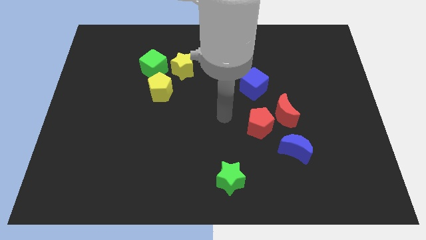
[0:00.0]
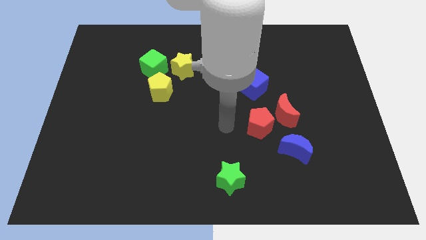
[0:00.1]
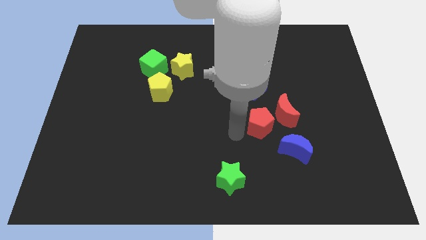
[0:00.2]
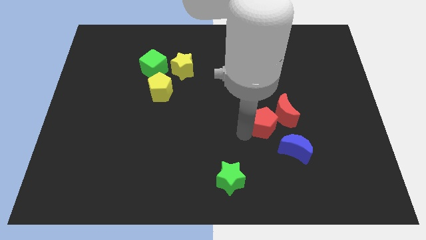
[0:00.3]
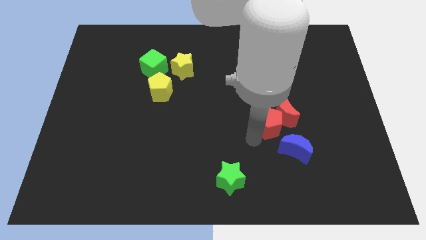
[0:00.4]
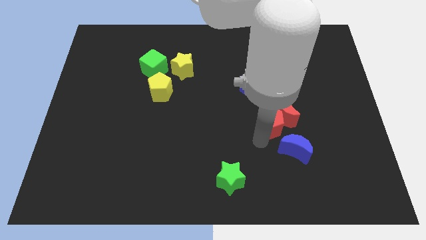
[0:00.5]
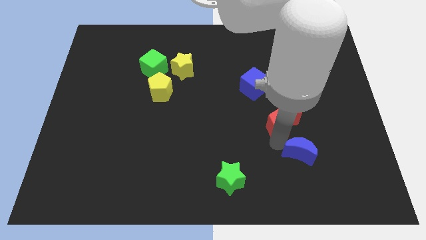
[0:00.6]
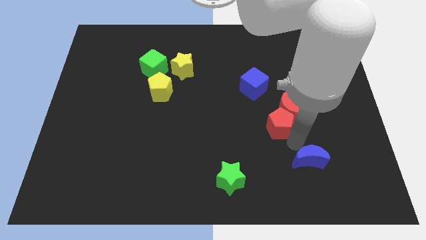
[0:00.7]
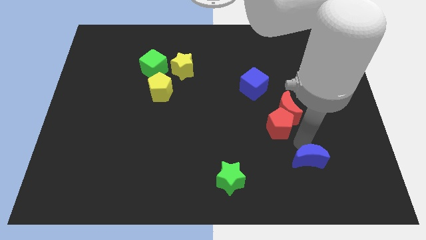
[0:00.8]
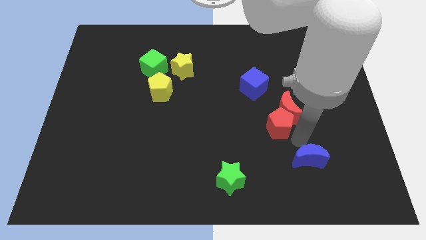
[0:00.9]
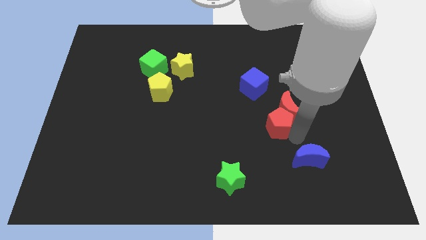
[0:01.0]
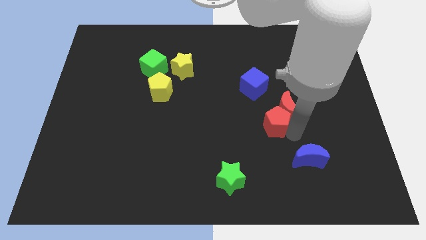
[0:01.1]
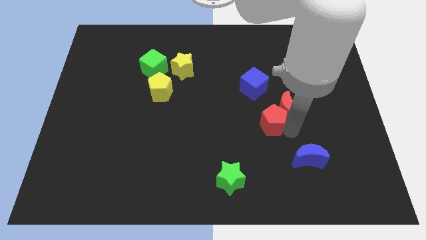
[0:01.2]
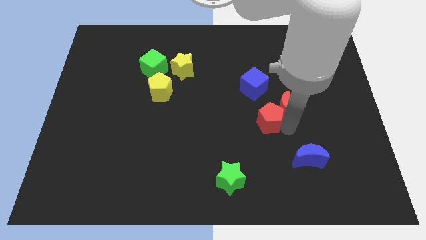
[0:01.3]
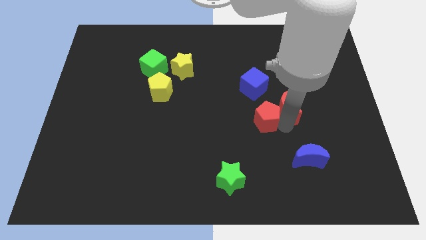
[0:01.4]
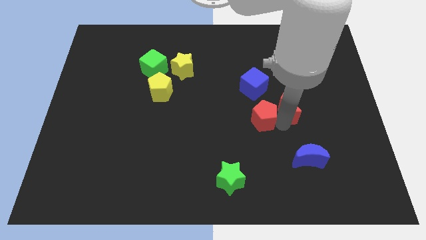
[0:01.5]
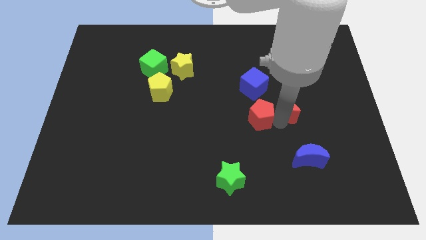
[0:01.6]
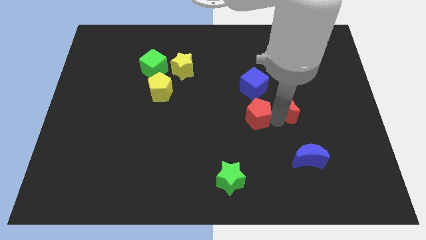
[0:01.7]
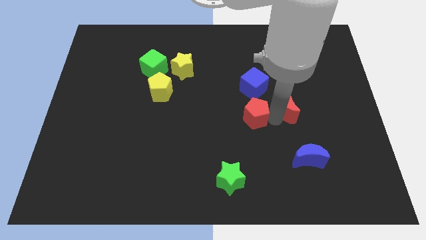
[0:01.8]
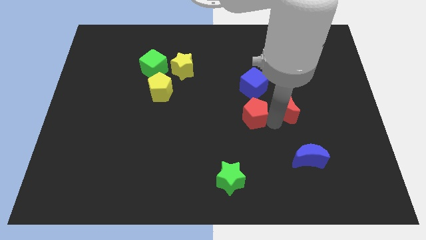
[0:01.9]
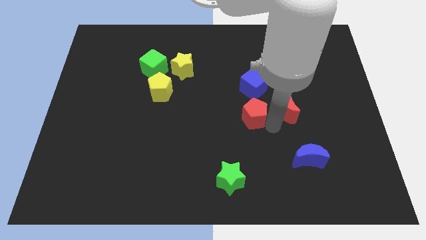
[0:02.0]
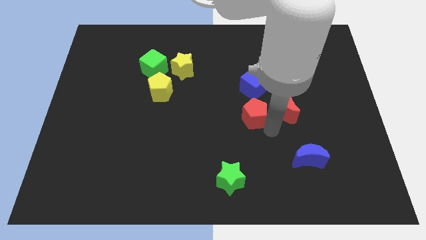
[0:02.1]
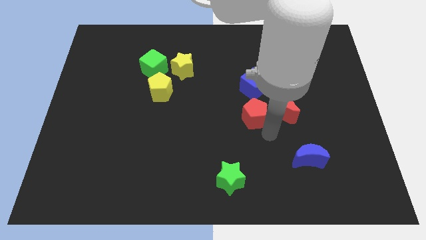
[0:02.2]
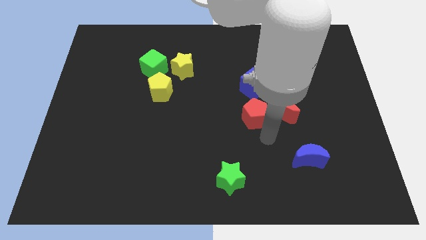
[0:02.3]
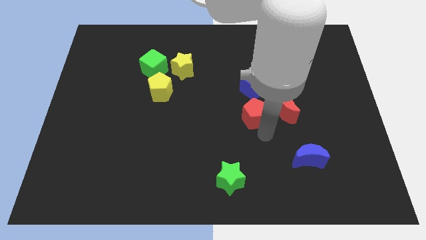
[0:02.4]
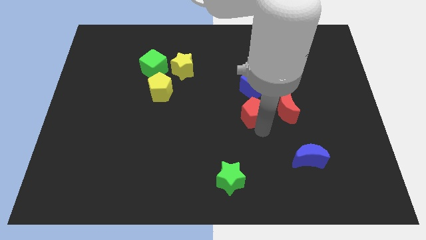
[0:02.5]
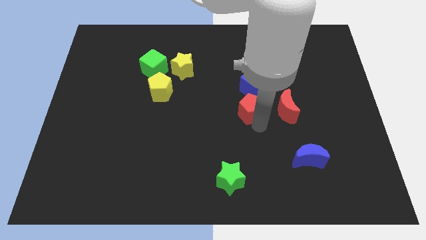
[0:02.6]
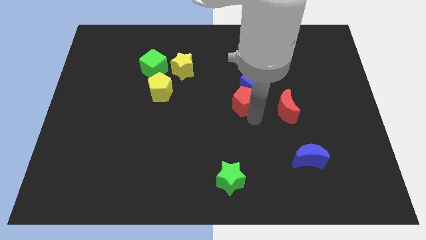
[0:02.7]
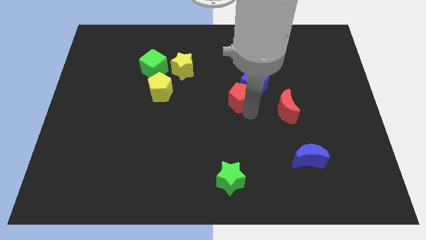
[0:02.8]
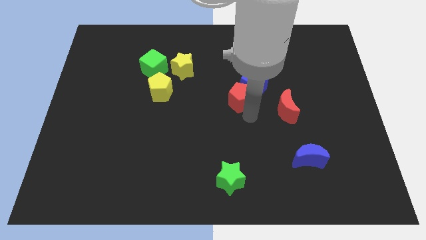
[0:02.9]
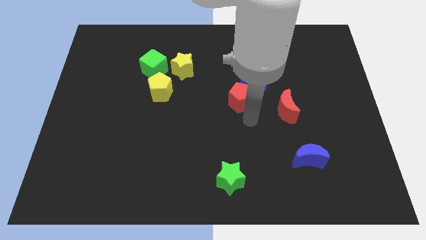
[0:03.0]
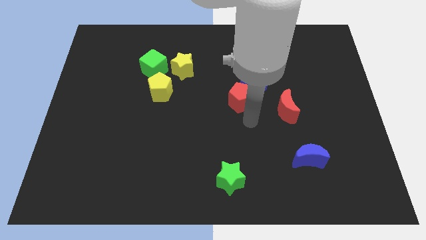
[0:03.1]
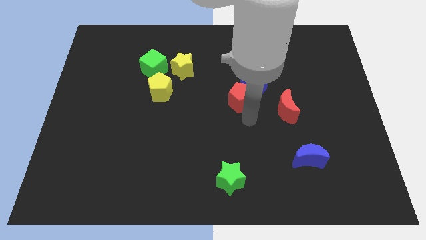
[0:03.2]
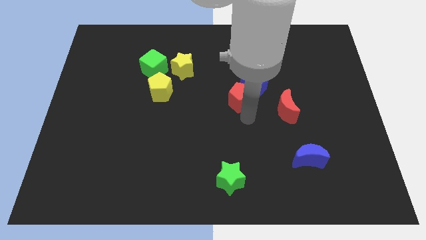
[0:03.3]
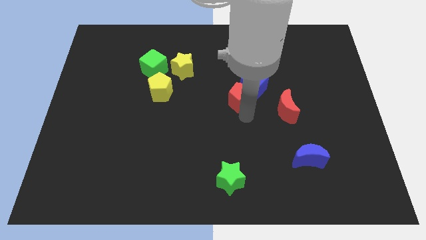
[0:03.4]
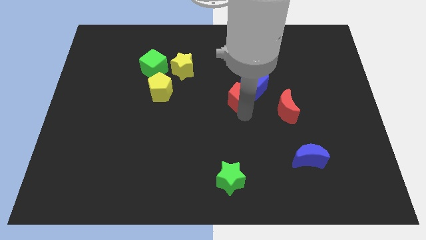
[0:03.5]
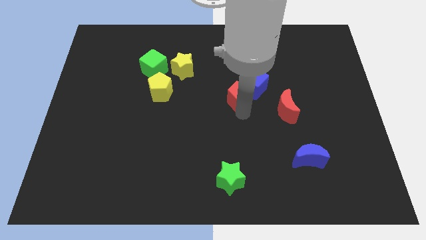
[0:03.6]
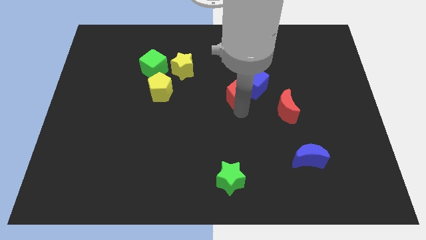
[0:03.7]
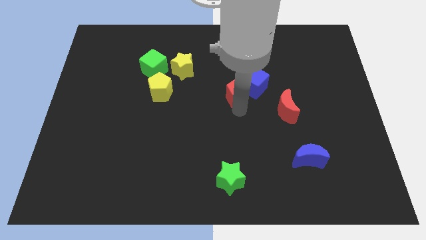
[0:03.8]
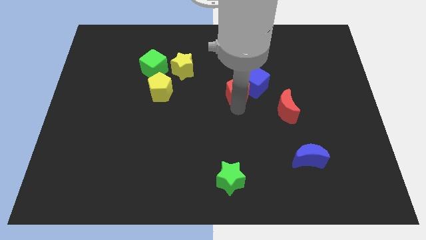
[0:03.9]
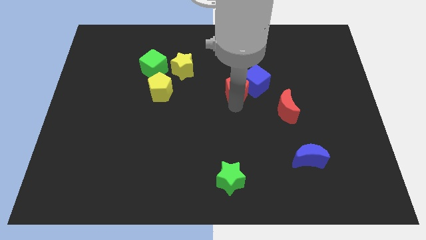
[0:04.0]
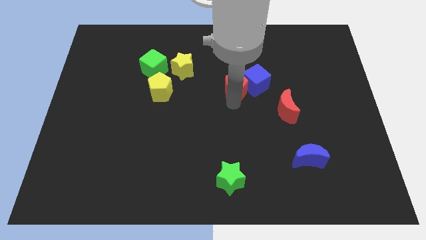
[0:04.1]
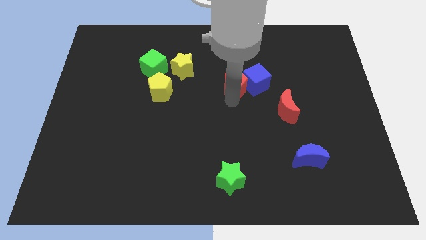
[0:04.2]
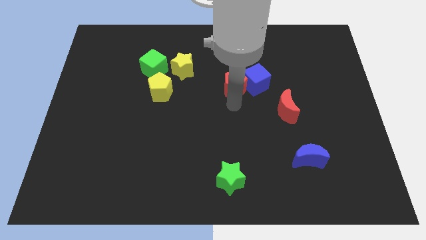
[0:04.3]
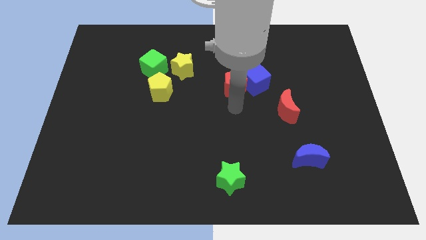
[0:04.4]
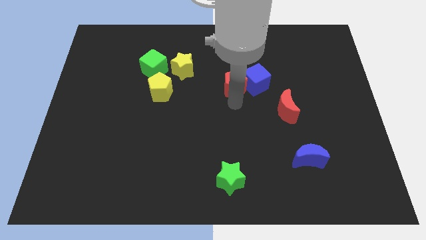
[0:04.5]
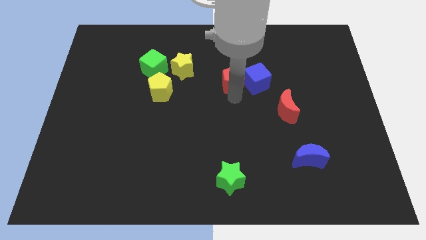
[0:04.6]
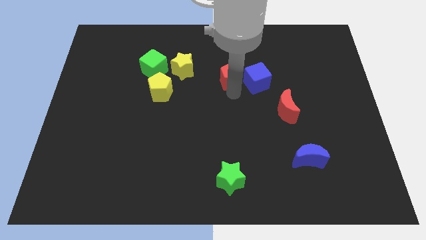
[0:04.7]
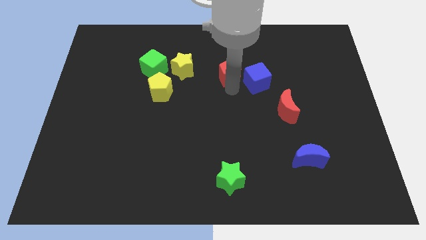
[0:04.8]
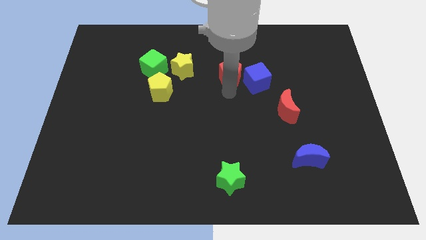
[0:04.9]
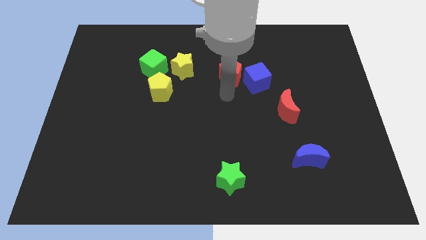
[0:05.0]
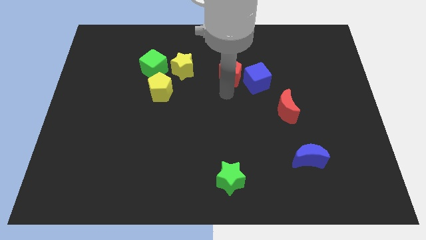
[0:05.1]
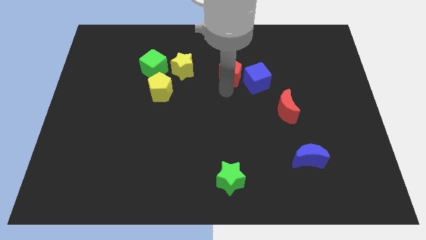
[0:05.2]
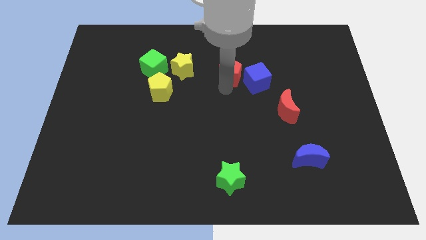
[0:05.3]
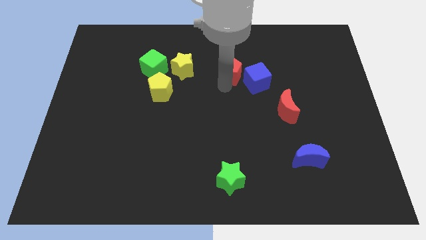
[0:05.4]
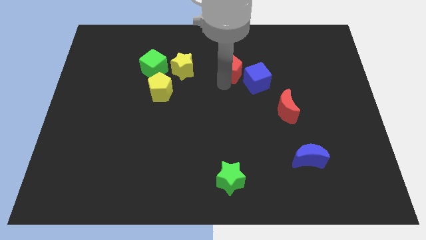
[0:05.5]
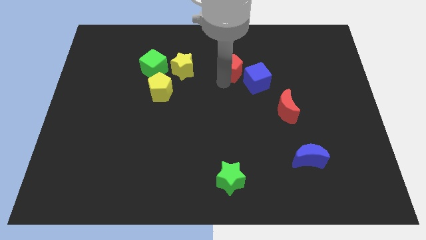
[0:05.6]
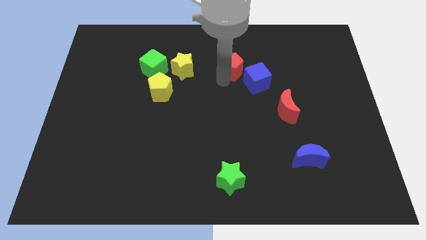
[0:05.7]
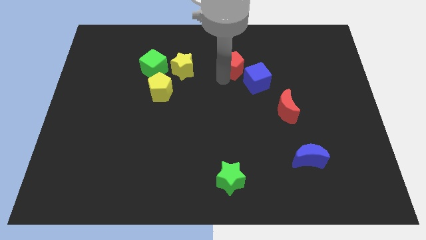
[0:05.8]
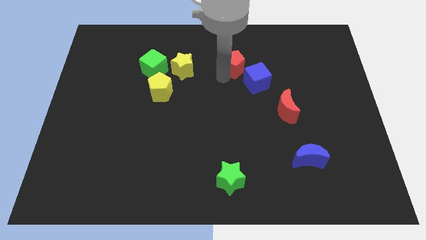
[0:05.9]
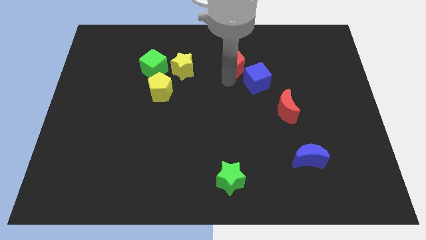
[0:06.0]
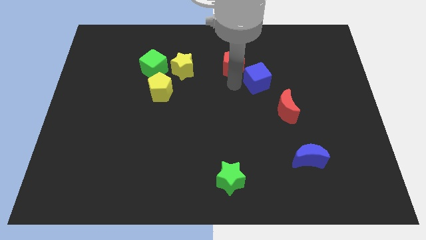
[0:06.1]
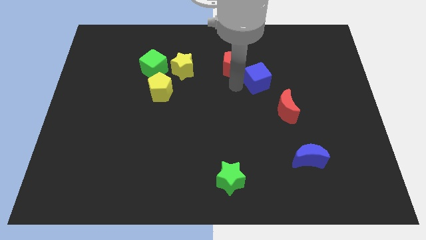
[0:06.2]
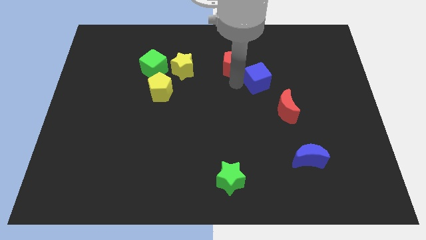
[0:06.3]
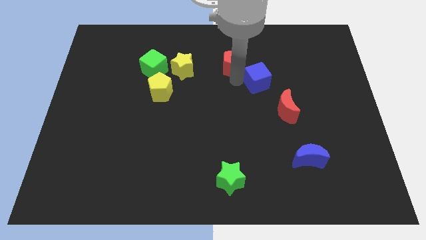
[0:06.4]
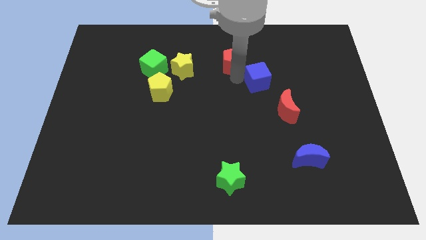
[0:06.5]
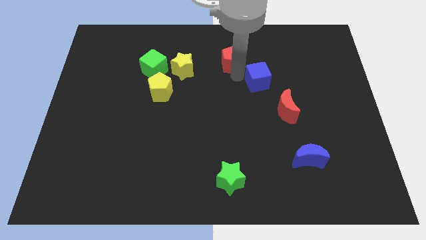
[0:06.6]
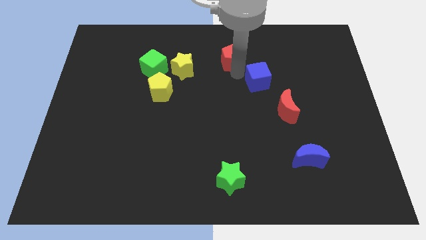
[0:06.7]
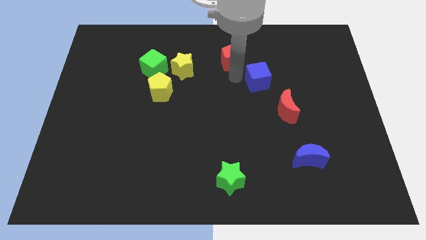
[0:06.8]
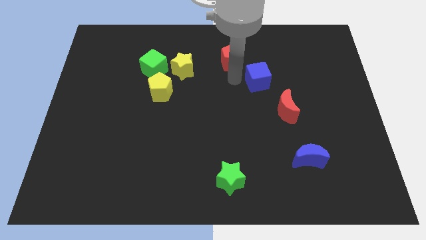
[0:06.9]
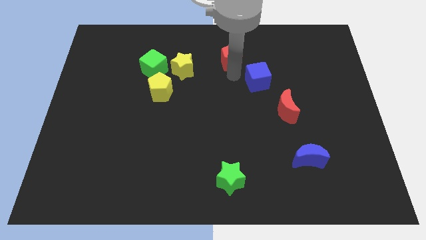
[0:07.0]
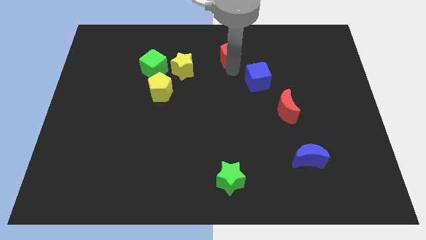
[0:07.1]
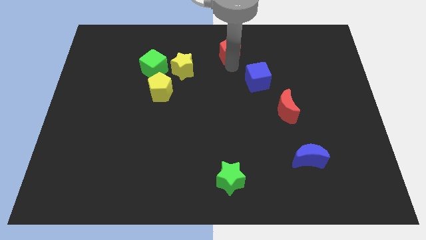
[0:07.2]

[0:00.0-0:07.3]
move the red pentagon to the top side
